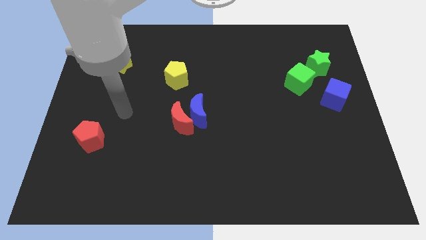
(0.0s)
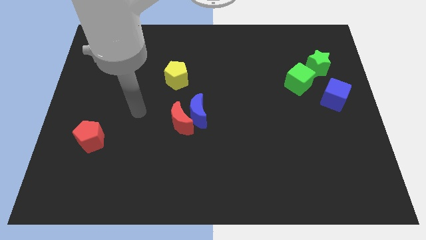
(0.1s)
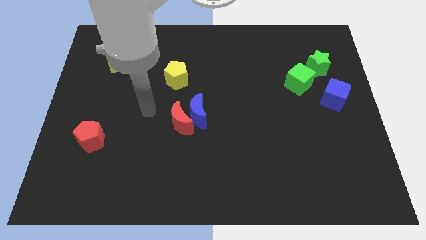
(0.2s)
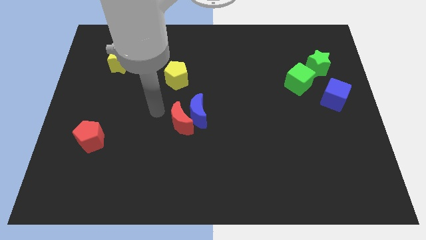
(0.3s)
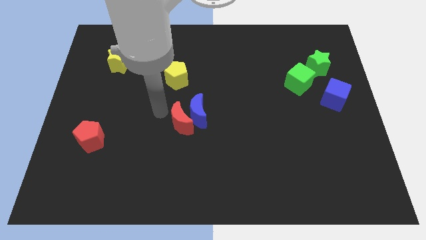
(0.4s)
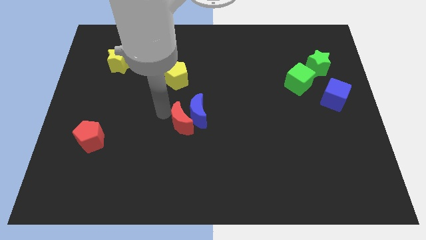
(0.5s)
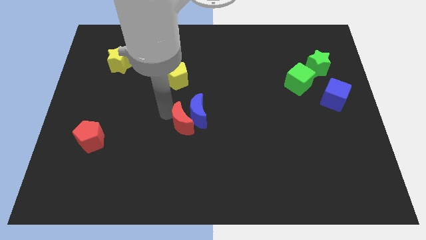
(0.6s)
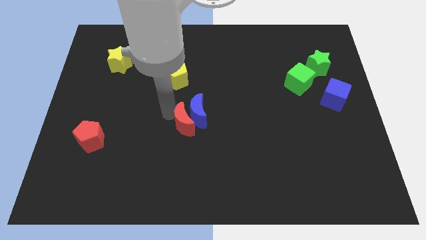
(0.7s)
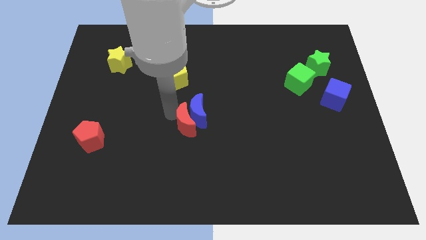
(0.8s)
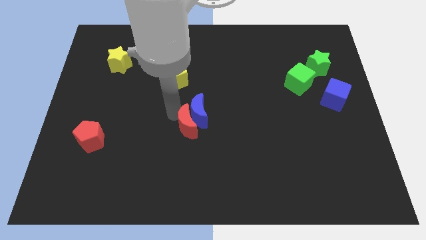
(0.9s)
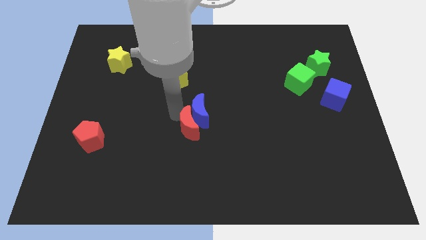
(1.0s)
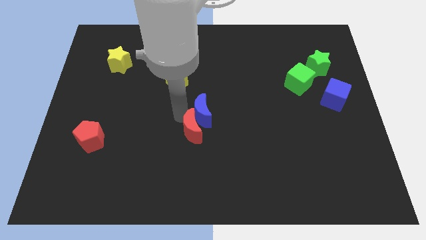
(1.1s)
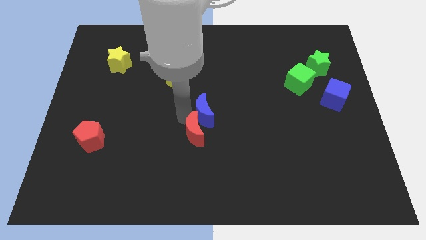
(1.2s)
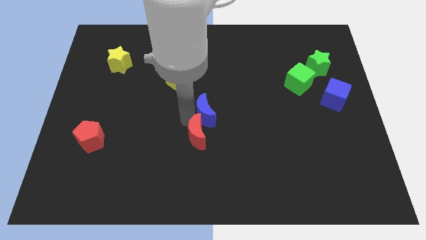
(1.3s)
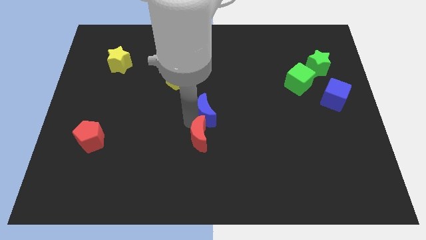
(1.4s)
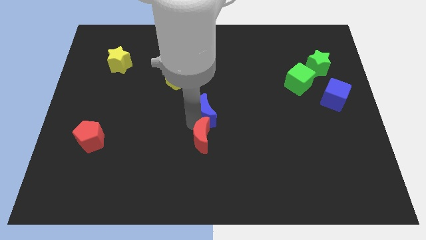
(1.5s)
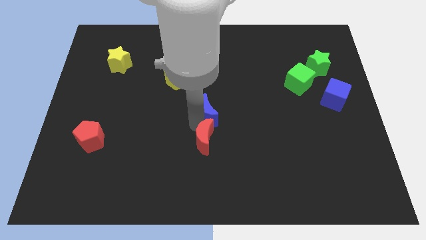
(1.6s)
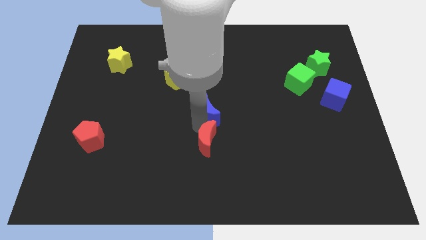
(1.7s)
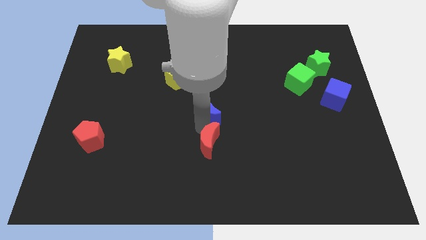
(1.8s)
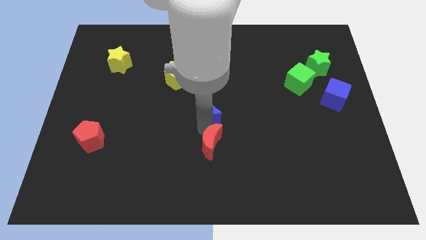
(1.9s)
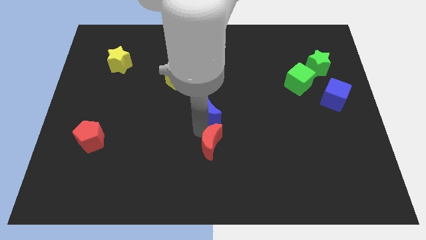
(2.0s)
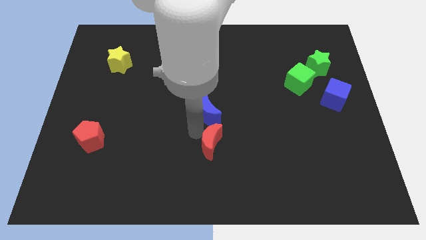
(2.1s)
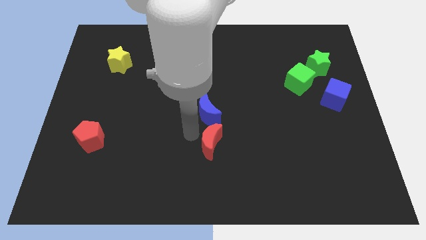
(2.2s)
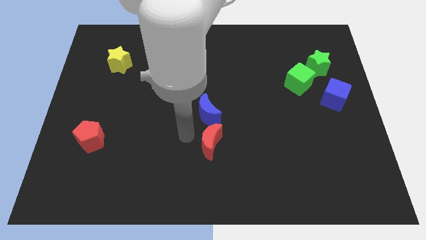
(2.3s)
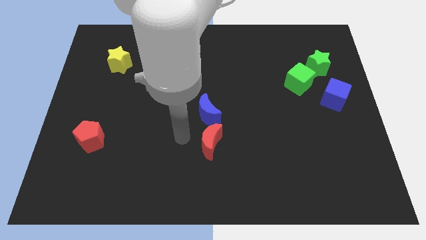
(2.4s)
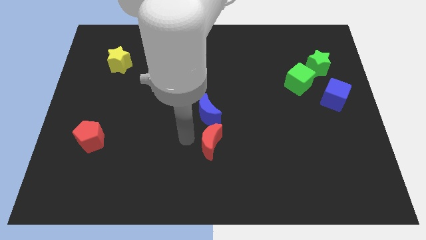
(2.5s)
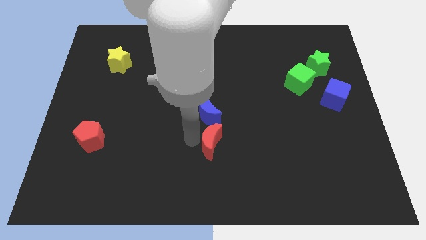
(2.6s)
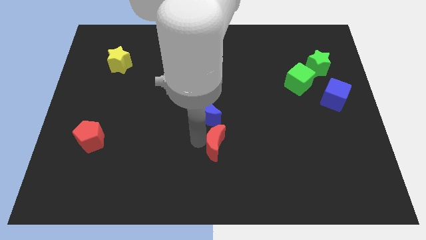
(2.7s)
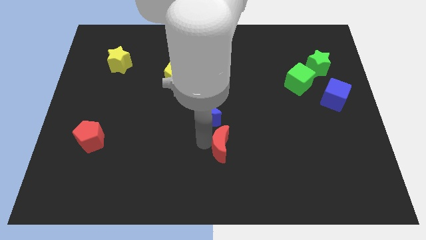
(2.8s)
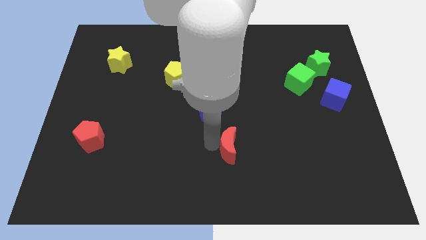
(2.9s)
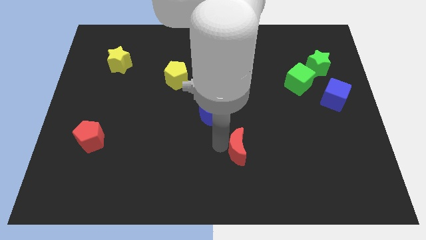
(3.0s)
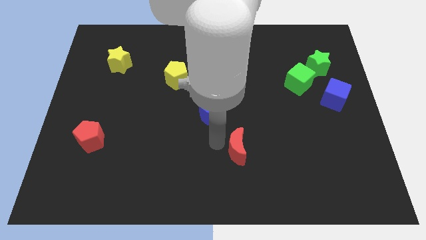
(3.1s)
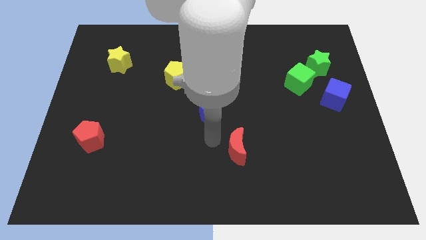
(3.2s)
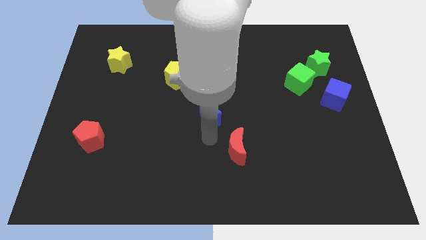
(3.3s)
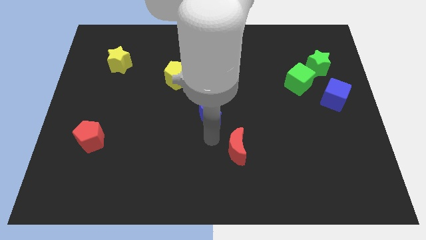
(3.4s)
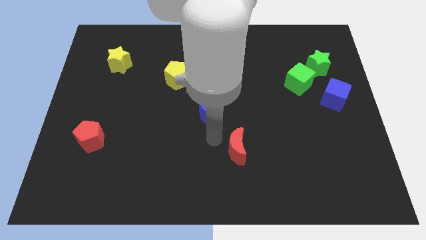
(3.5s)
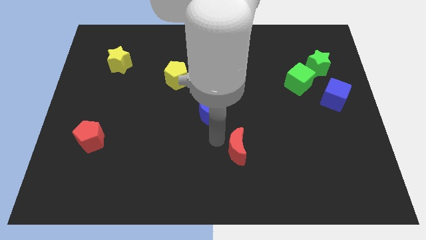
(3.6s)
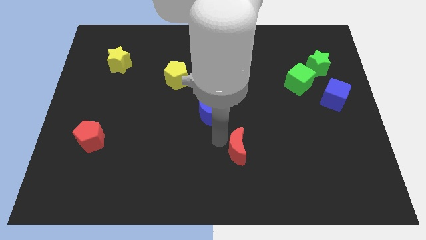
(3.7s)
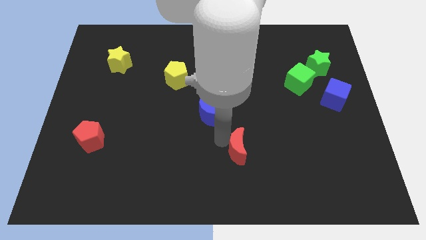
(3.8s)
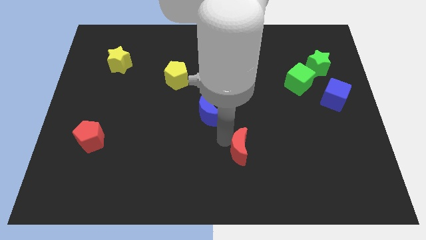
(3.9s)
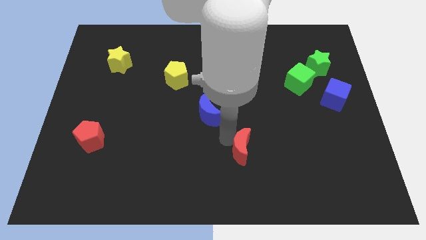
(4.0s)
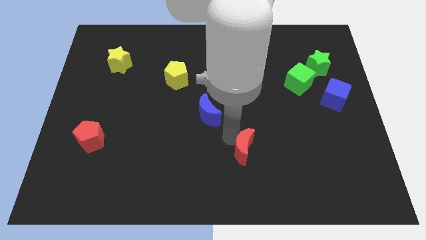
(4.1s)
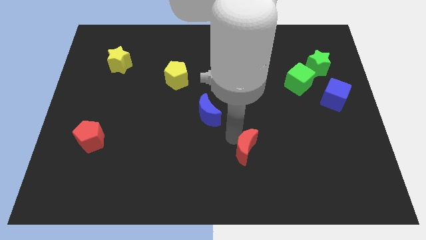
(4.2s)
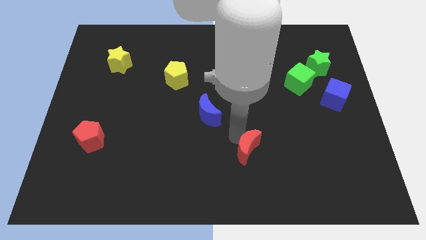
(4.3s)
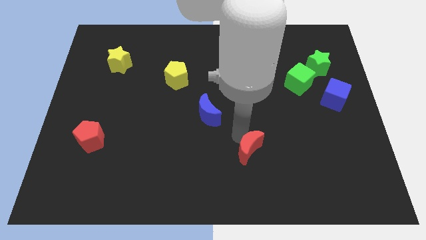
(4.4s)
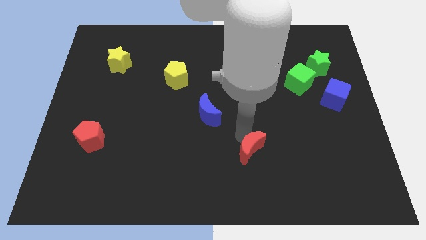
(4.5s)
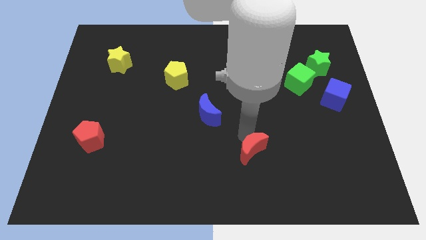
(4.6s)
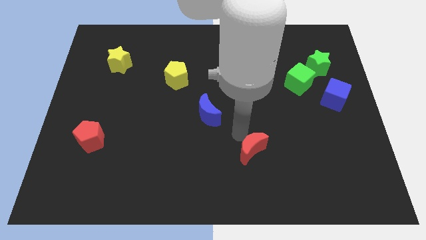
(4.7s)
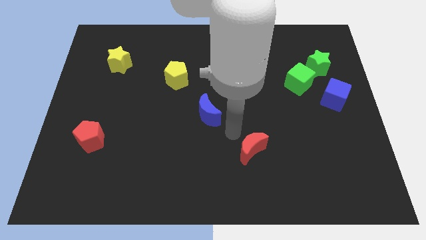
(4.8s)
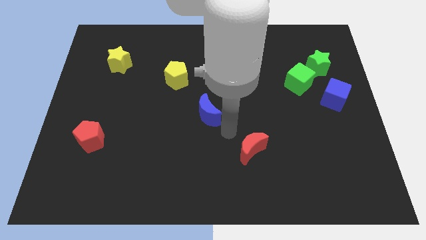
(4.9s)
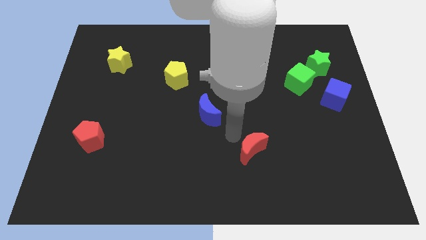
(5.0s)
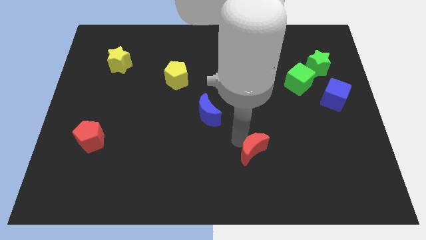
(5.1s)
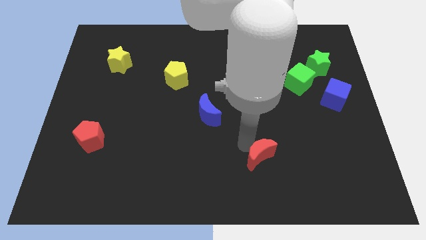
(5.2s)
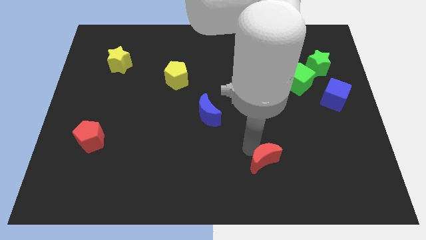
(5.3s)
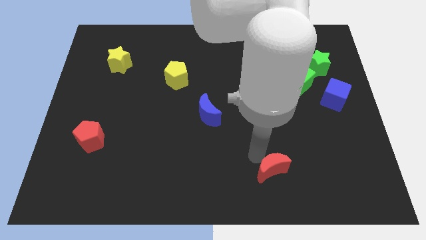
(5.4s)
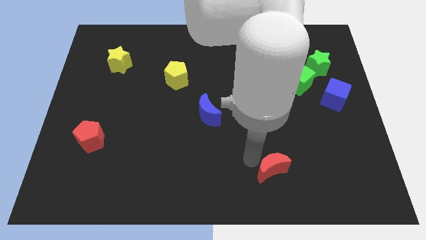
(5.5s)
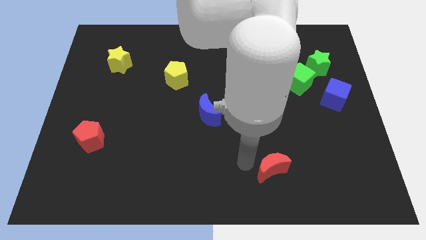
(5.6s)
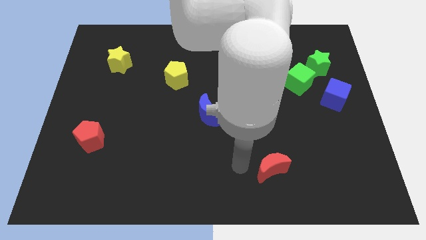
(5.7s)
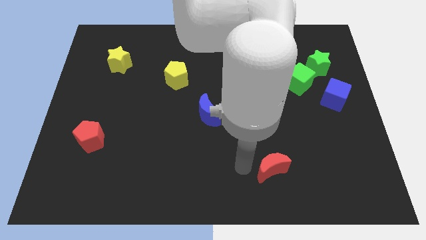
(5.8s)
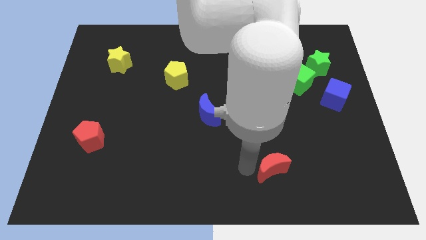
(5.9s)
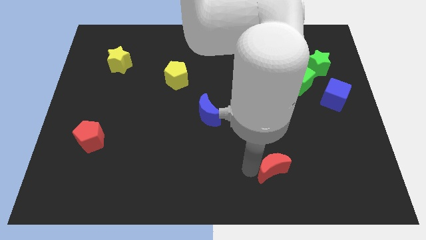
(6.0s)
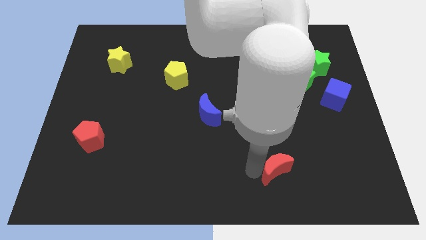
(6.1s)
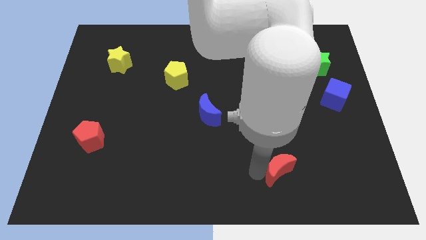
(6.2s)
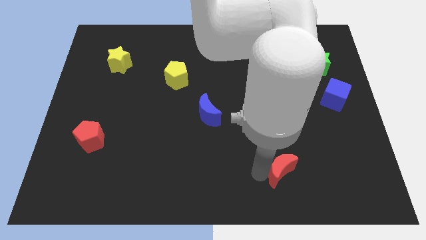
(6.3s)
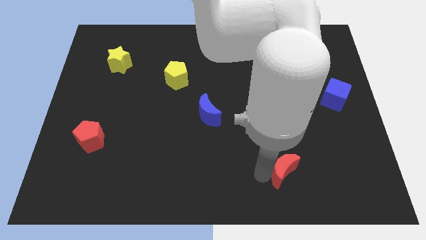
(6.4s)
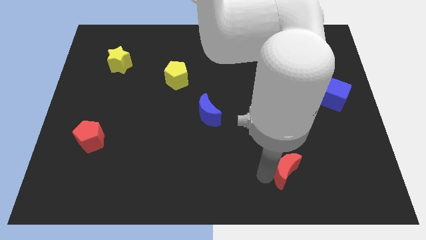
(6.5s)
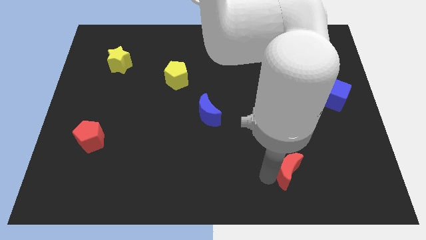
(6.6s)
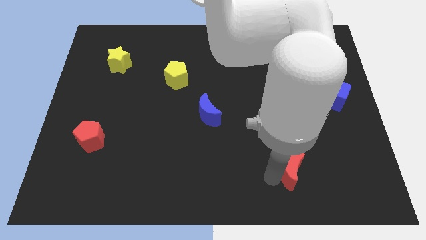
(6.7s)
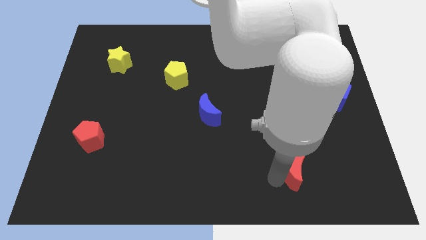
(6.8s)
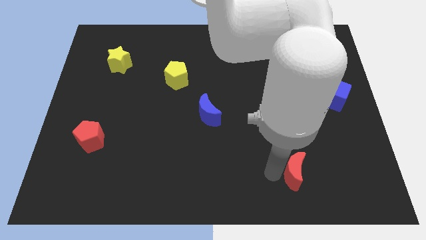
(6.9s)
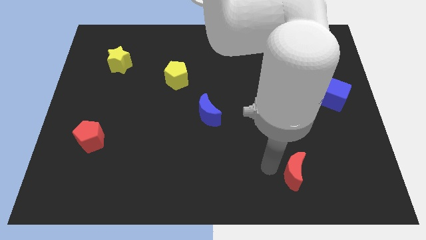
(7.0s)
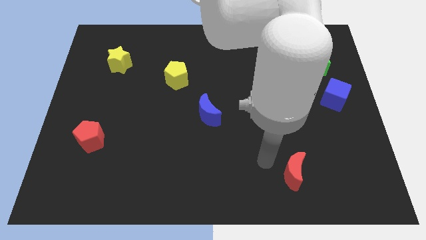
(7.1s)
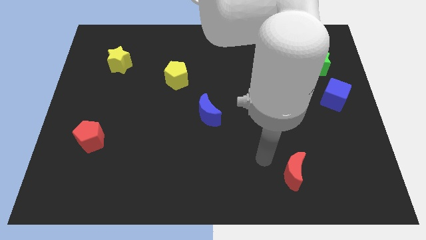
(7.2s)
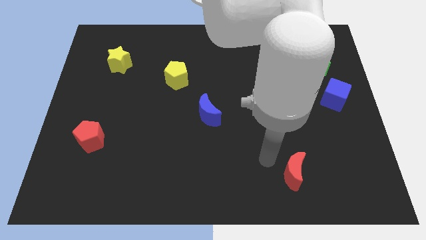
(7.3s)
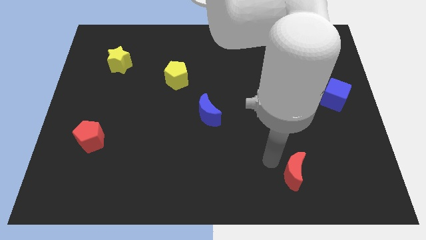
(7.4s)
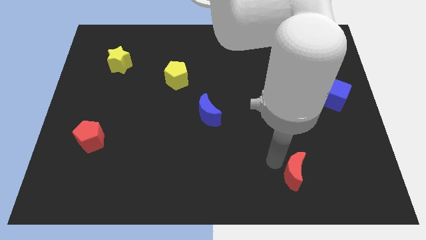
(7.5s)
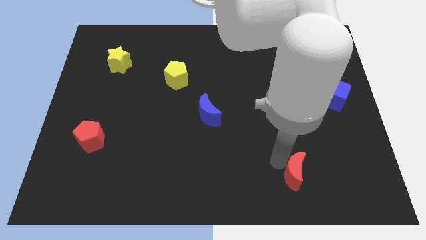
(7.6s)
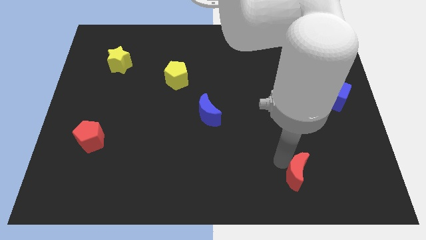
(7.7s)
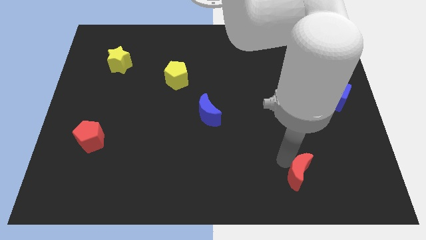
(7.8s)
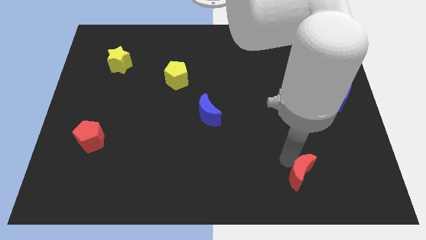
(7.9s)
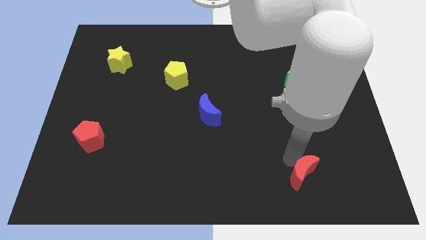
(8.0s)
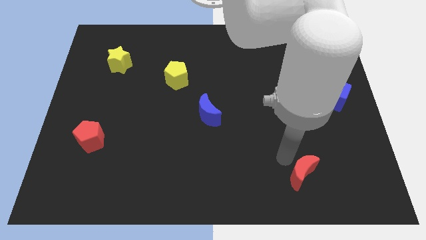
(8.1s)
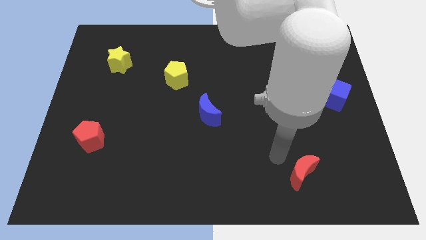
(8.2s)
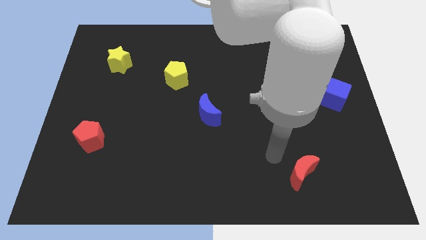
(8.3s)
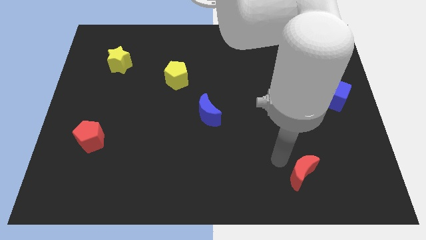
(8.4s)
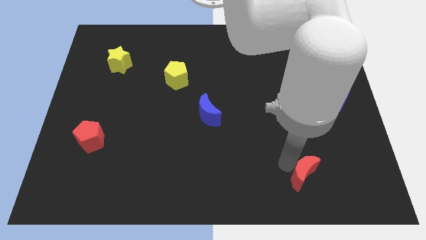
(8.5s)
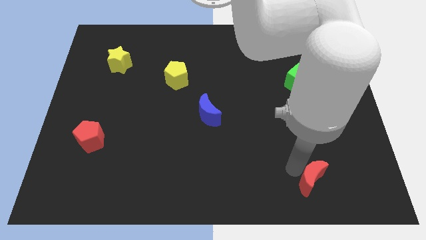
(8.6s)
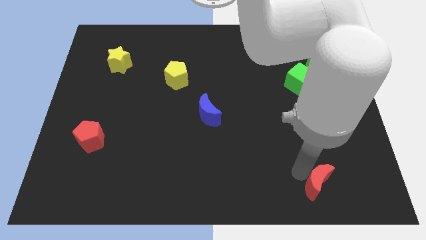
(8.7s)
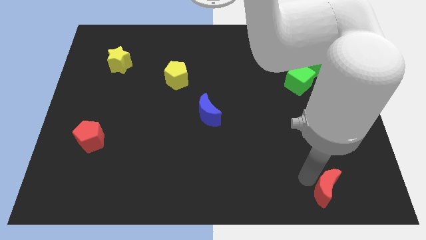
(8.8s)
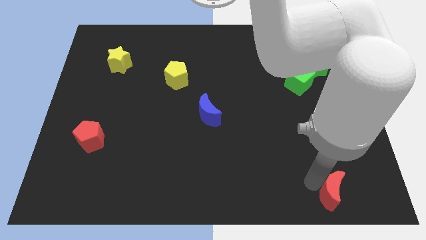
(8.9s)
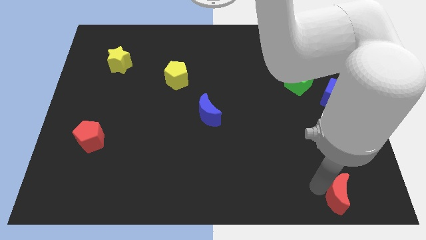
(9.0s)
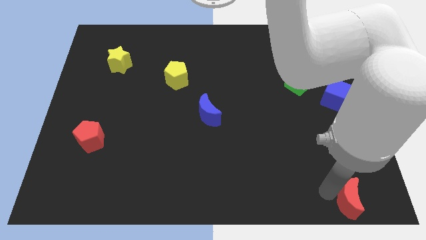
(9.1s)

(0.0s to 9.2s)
put the red moon to the bottom right
